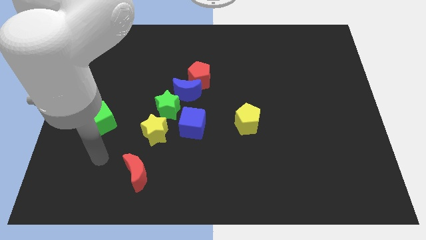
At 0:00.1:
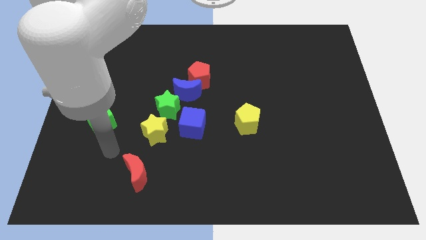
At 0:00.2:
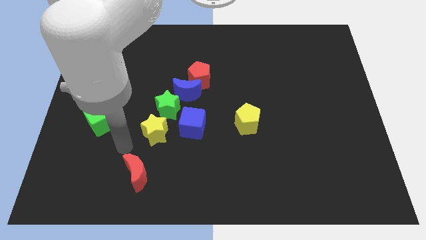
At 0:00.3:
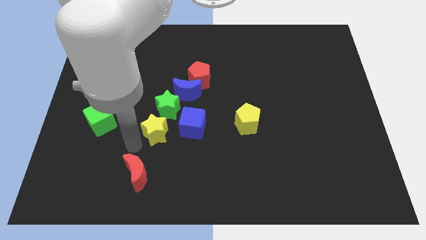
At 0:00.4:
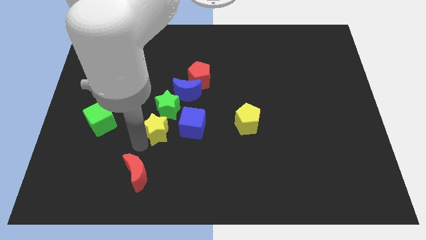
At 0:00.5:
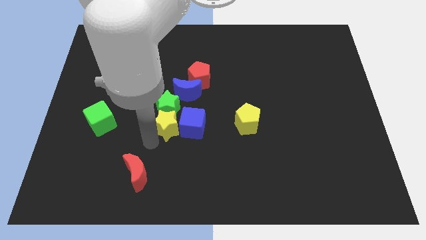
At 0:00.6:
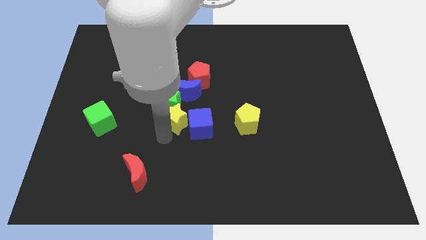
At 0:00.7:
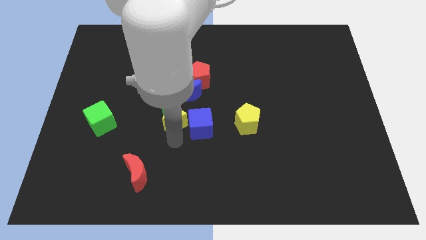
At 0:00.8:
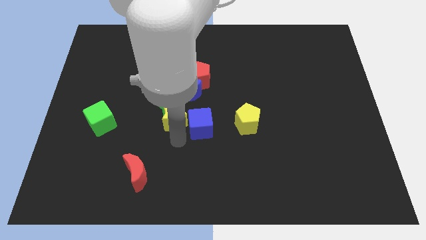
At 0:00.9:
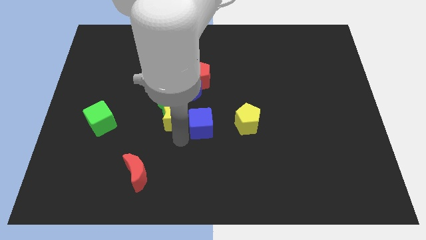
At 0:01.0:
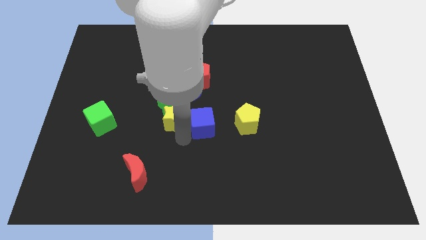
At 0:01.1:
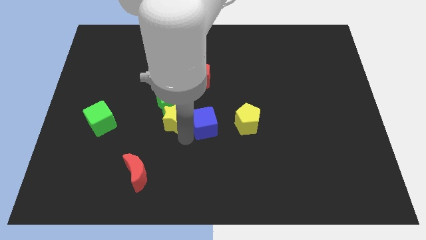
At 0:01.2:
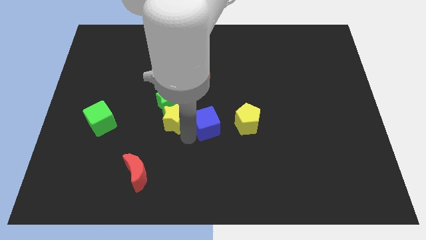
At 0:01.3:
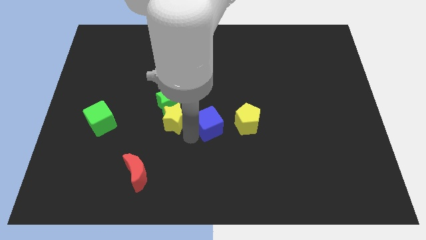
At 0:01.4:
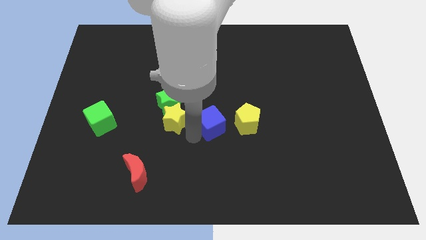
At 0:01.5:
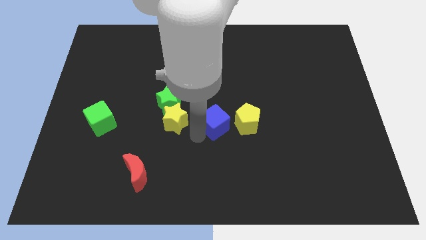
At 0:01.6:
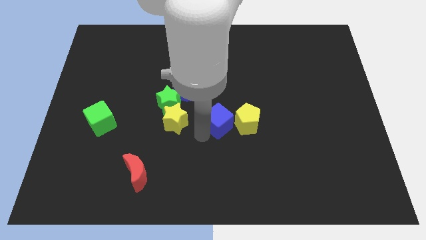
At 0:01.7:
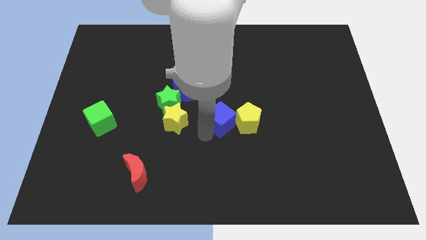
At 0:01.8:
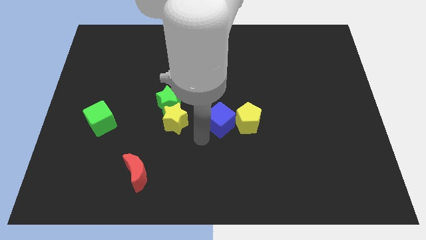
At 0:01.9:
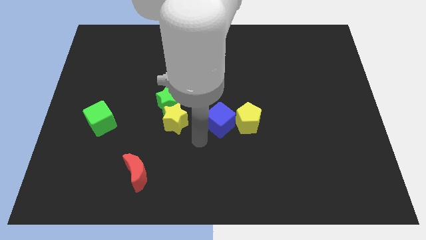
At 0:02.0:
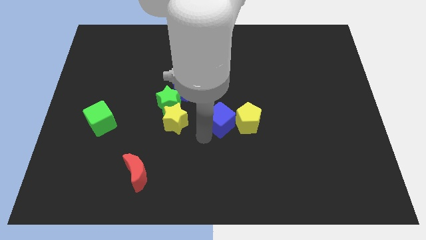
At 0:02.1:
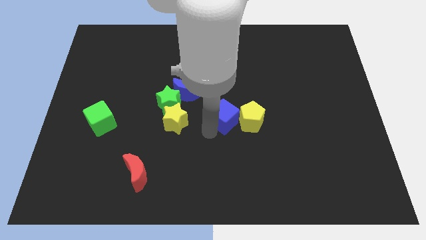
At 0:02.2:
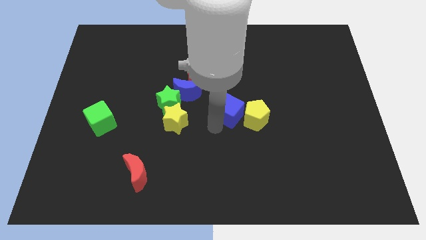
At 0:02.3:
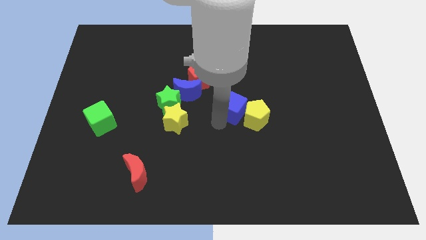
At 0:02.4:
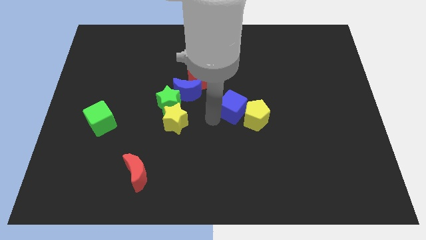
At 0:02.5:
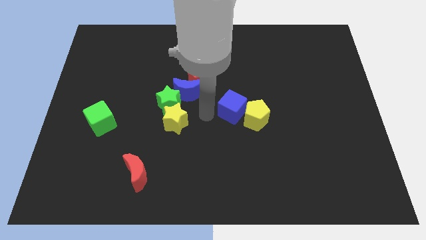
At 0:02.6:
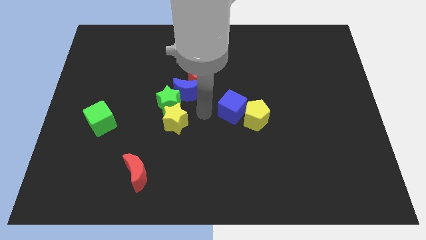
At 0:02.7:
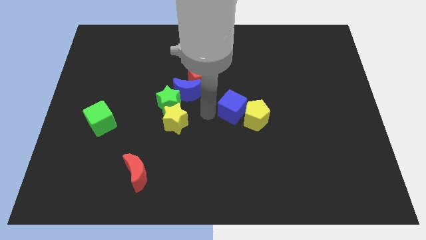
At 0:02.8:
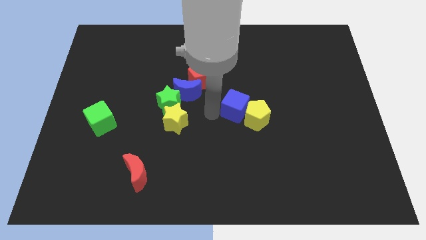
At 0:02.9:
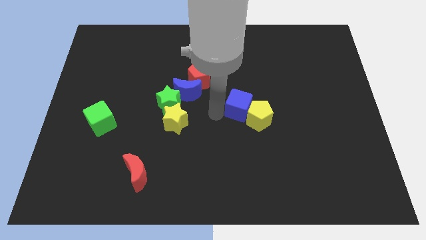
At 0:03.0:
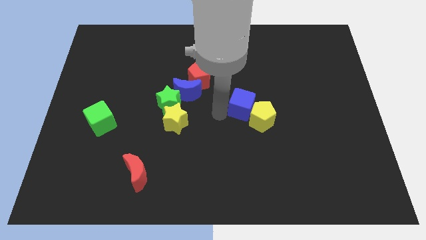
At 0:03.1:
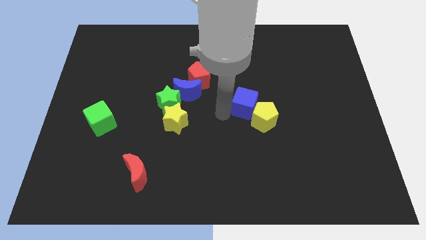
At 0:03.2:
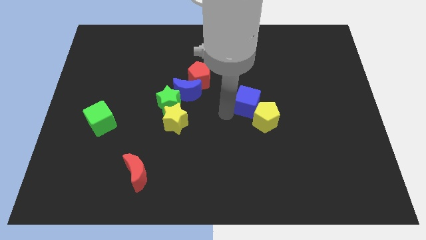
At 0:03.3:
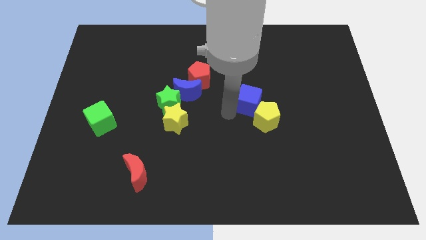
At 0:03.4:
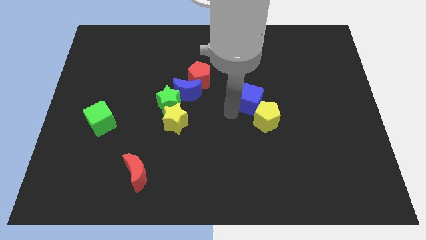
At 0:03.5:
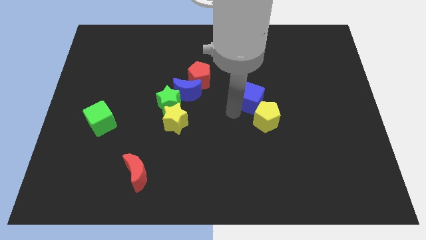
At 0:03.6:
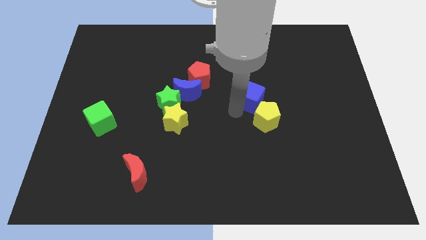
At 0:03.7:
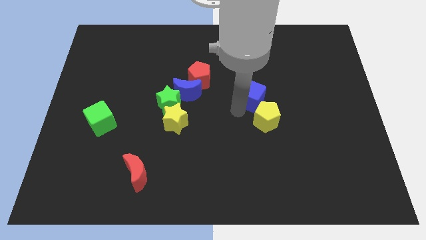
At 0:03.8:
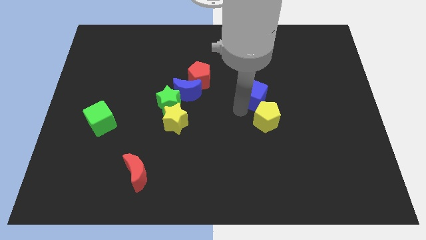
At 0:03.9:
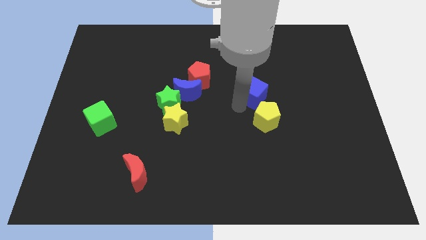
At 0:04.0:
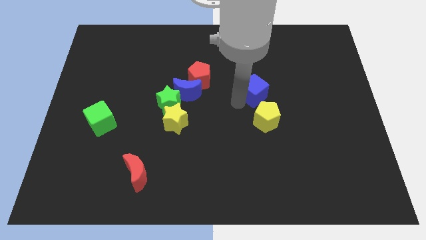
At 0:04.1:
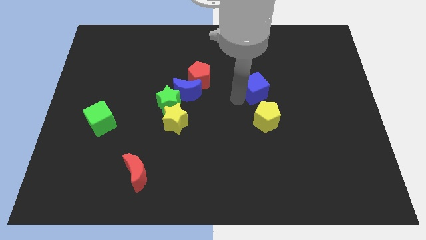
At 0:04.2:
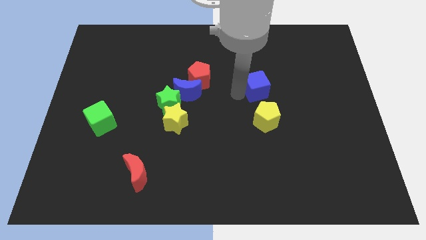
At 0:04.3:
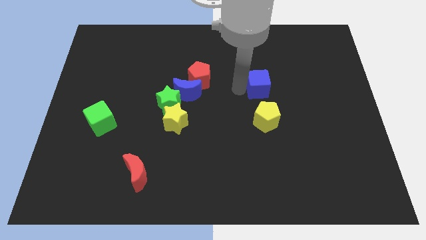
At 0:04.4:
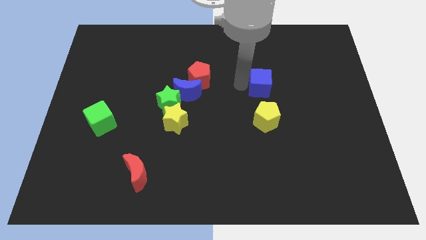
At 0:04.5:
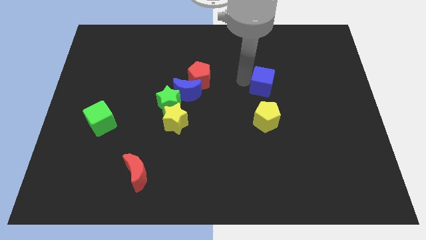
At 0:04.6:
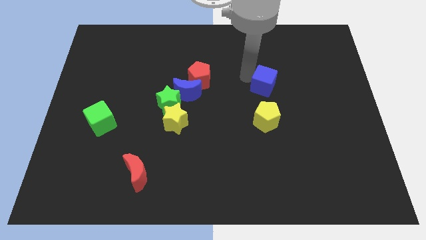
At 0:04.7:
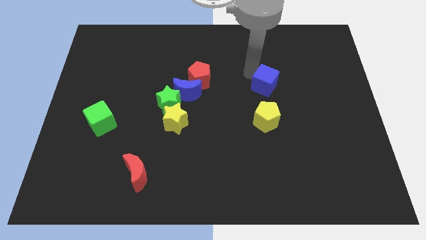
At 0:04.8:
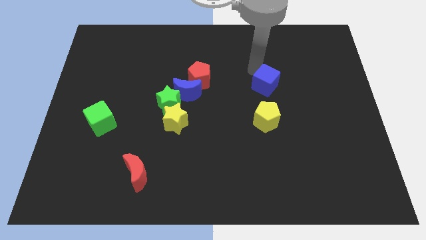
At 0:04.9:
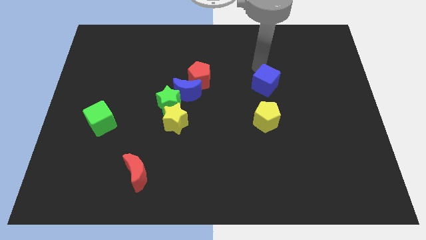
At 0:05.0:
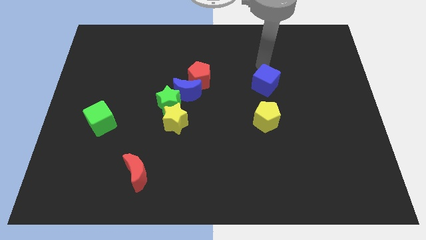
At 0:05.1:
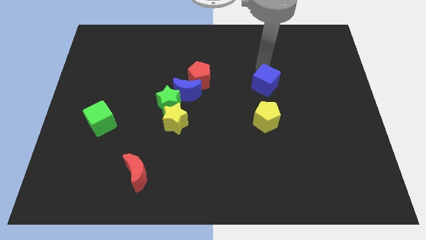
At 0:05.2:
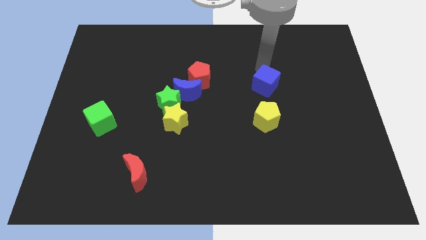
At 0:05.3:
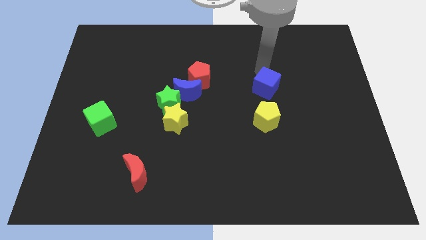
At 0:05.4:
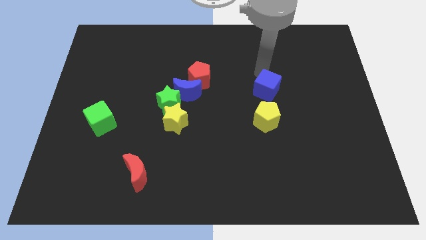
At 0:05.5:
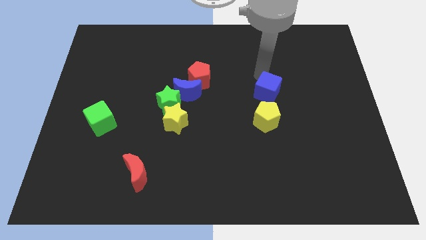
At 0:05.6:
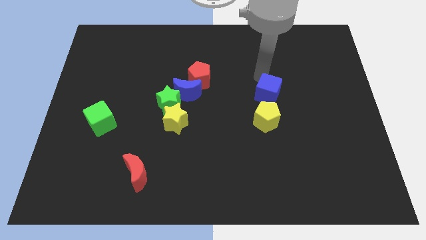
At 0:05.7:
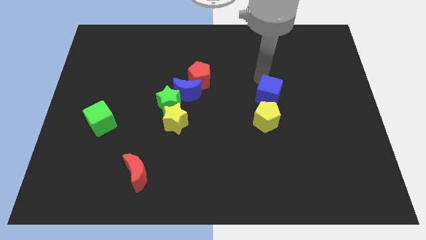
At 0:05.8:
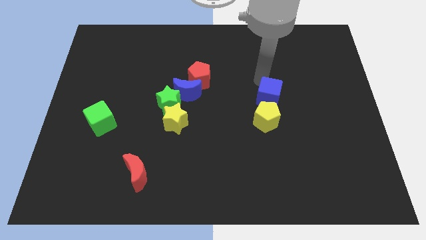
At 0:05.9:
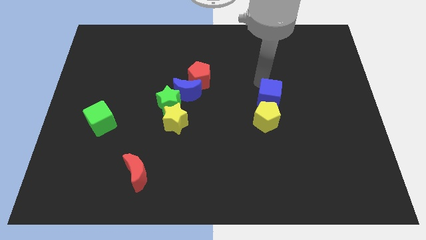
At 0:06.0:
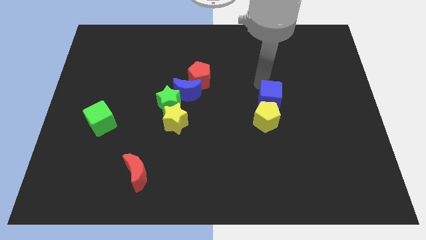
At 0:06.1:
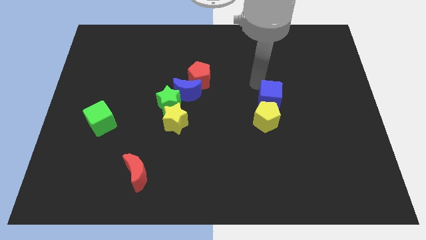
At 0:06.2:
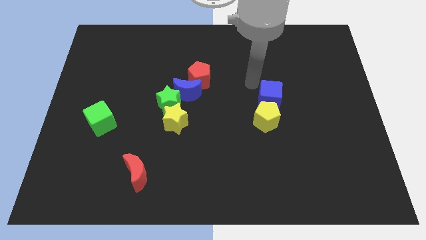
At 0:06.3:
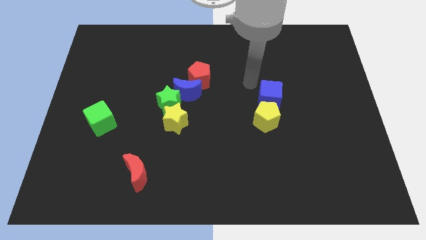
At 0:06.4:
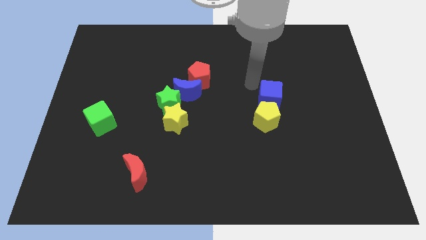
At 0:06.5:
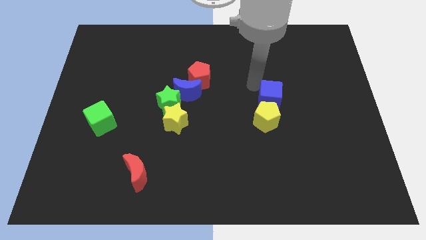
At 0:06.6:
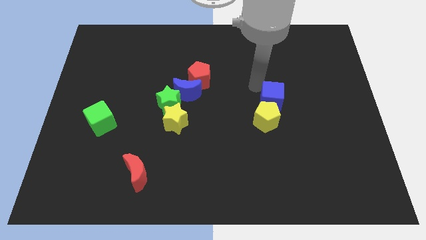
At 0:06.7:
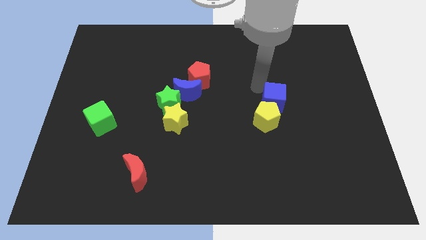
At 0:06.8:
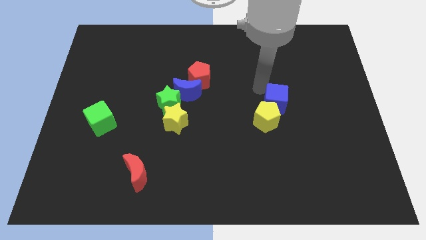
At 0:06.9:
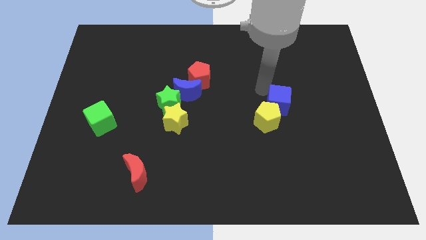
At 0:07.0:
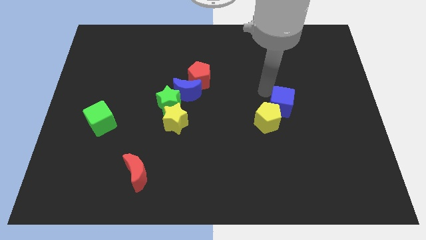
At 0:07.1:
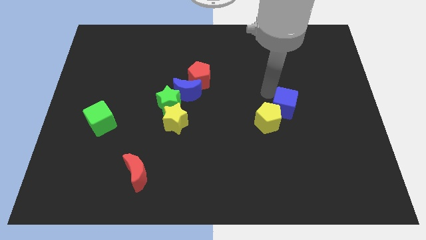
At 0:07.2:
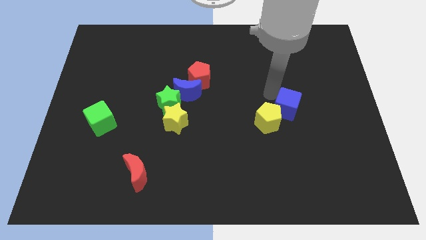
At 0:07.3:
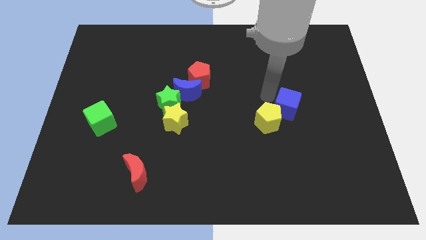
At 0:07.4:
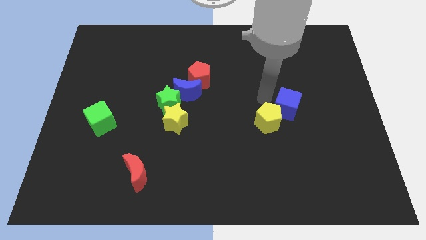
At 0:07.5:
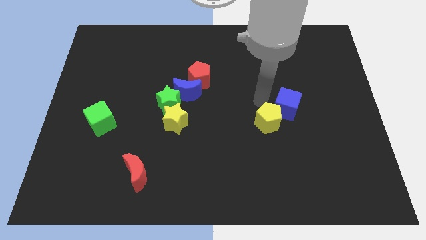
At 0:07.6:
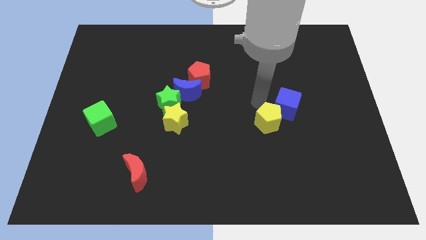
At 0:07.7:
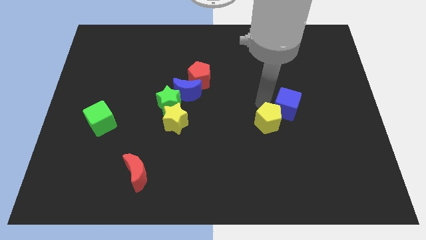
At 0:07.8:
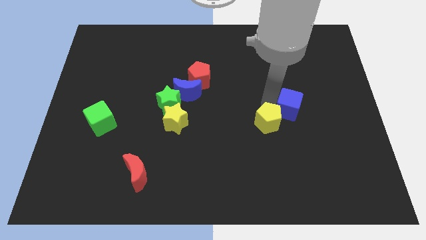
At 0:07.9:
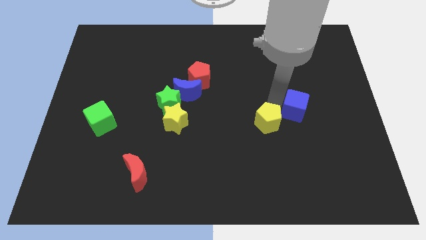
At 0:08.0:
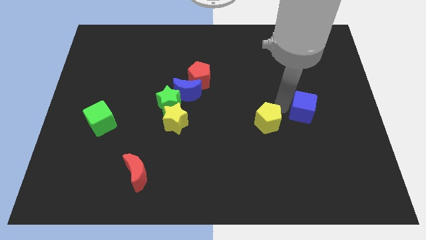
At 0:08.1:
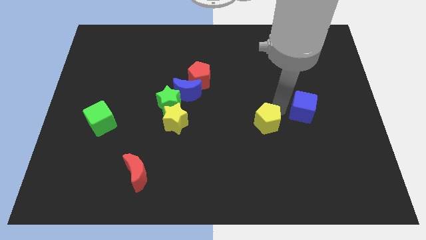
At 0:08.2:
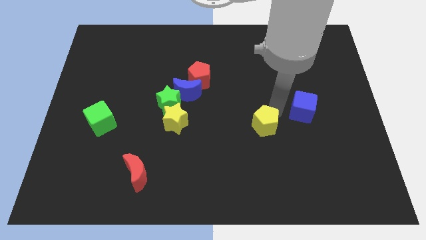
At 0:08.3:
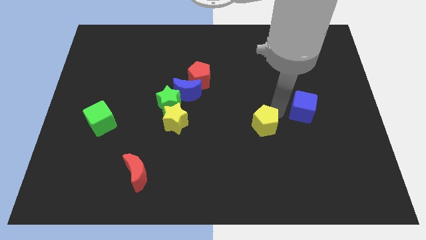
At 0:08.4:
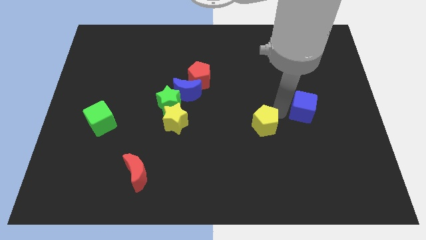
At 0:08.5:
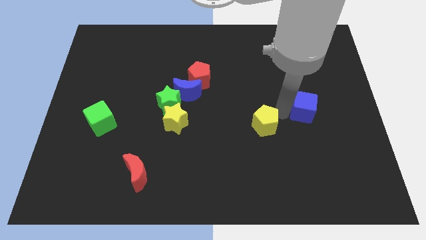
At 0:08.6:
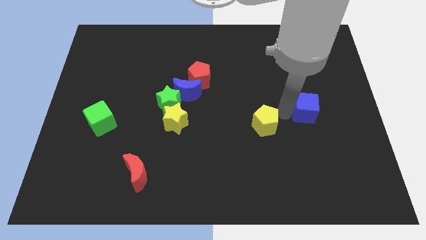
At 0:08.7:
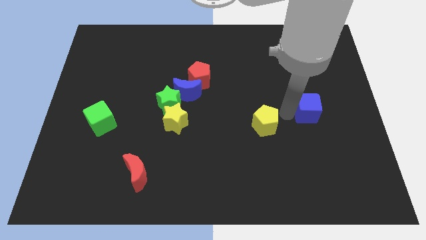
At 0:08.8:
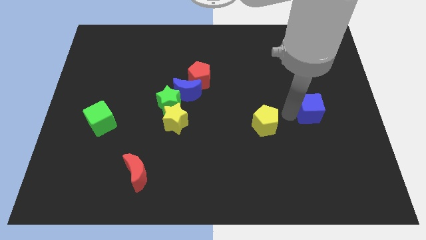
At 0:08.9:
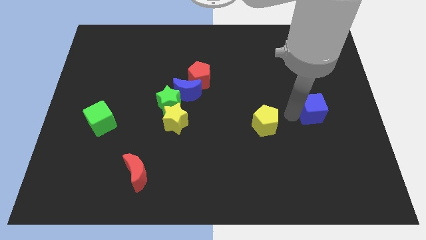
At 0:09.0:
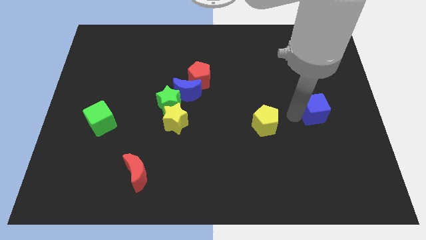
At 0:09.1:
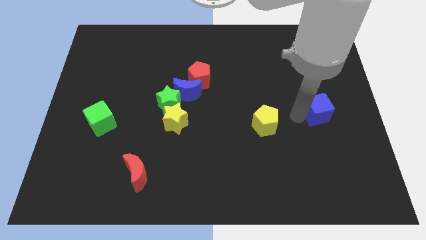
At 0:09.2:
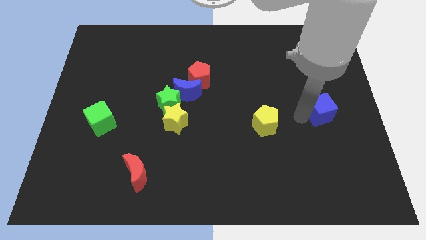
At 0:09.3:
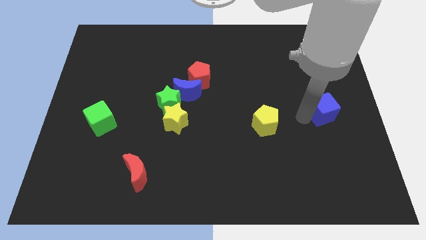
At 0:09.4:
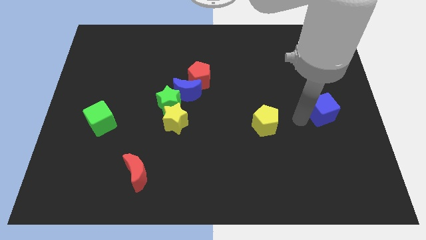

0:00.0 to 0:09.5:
push the blue cube to the right side of the board
